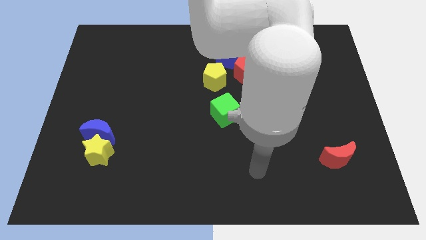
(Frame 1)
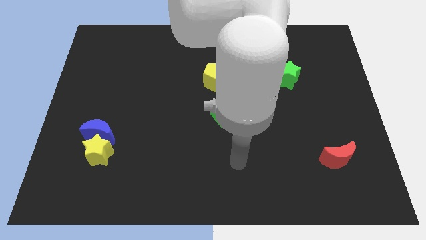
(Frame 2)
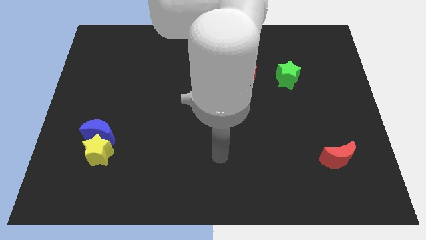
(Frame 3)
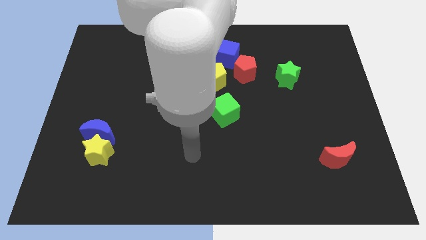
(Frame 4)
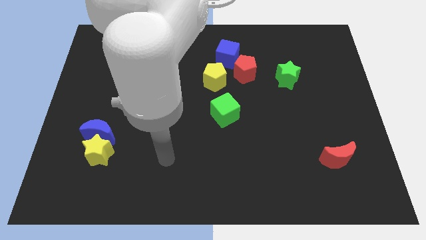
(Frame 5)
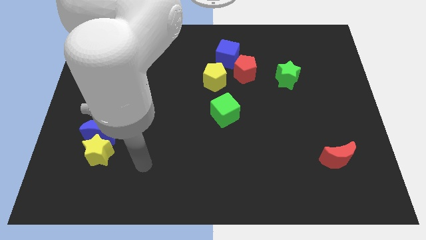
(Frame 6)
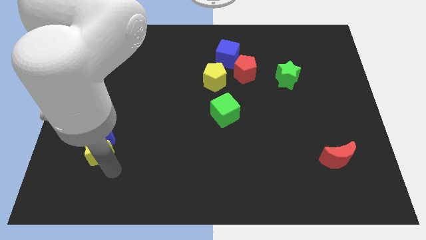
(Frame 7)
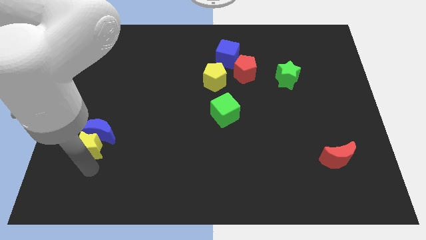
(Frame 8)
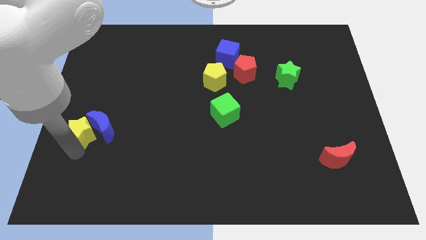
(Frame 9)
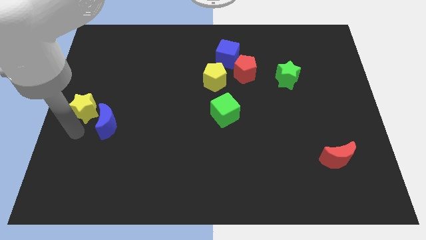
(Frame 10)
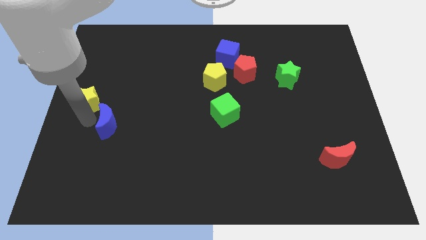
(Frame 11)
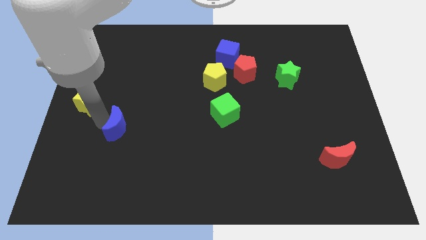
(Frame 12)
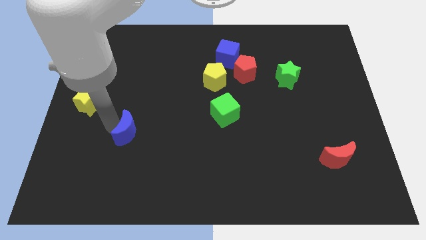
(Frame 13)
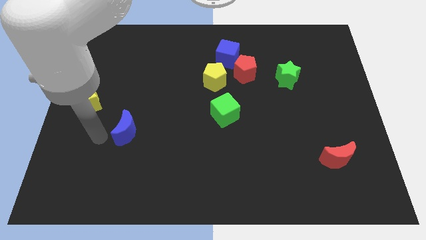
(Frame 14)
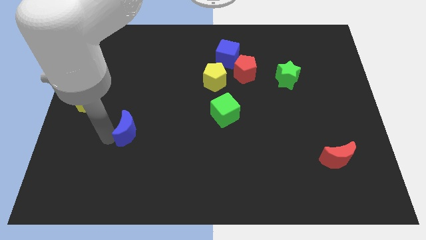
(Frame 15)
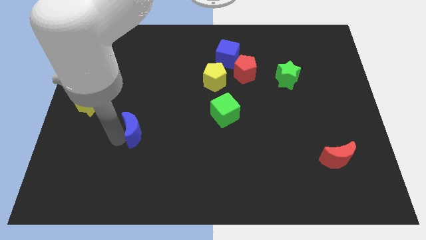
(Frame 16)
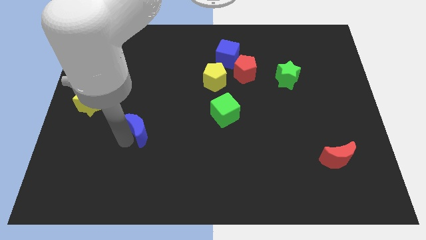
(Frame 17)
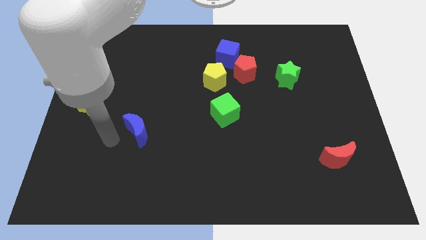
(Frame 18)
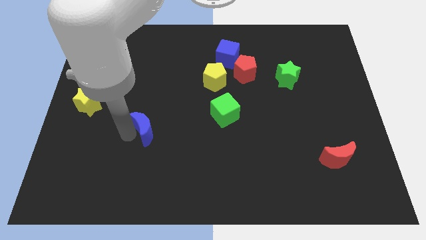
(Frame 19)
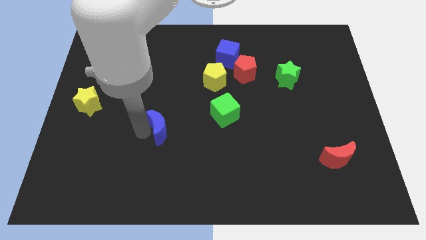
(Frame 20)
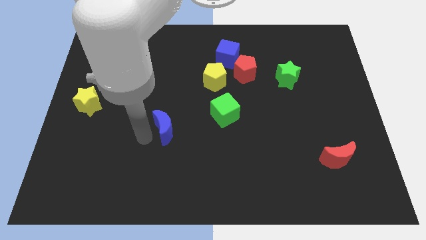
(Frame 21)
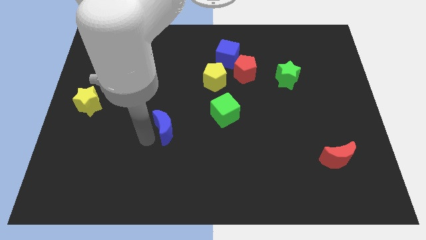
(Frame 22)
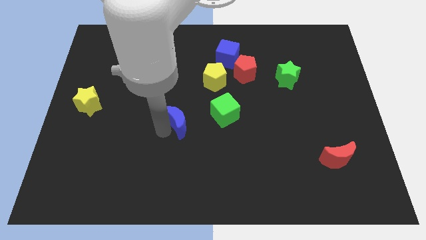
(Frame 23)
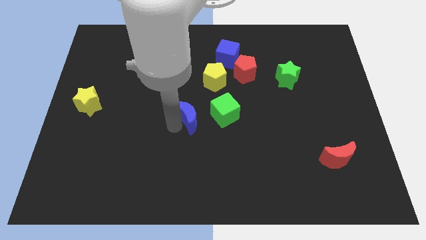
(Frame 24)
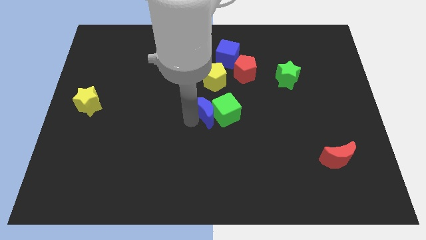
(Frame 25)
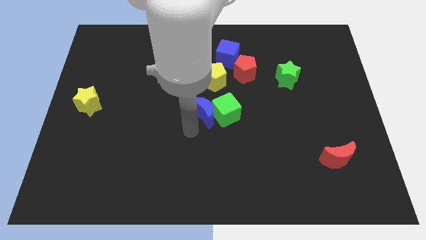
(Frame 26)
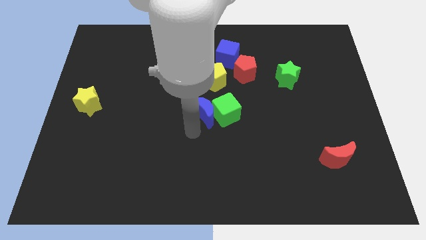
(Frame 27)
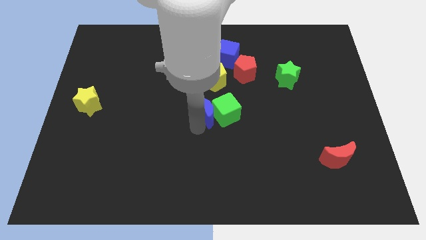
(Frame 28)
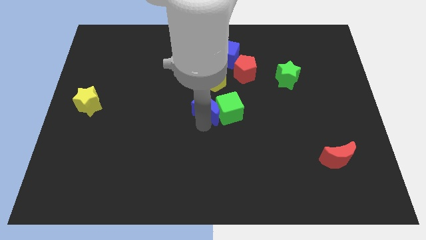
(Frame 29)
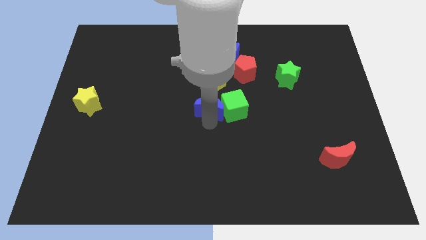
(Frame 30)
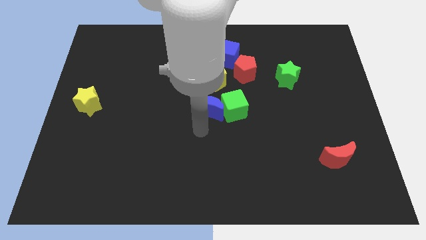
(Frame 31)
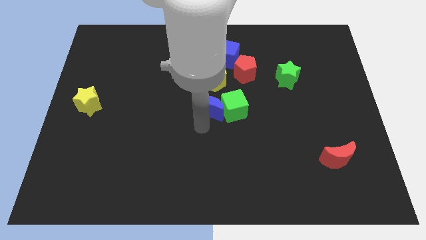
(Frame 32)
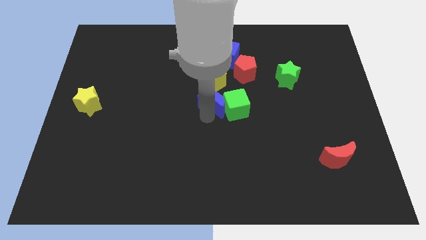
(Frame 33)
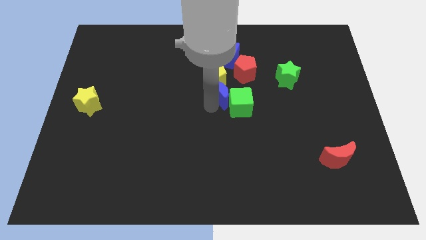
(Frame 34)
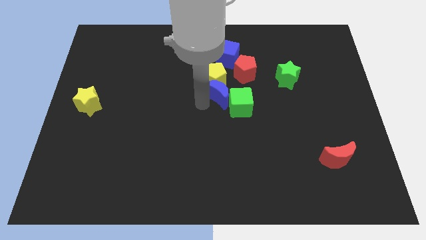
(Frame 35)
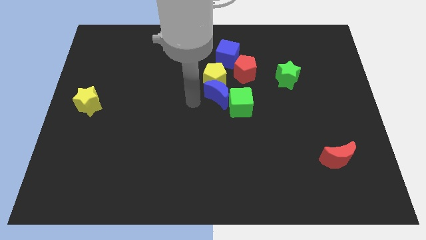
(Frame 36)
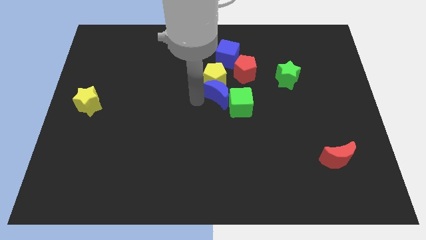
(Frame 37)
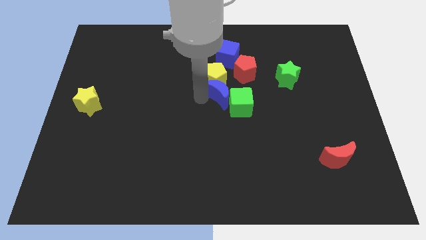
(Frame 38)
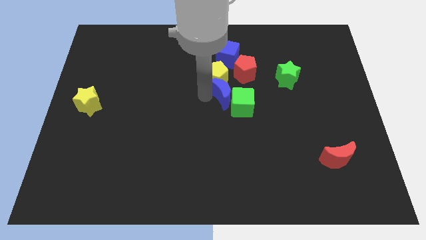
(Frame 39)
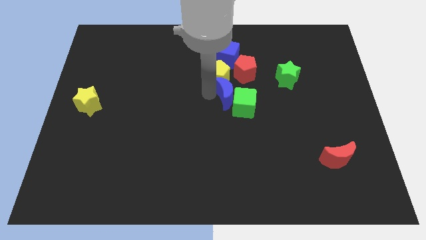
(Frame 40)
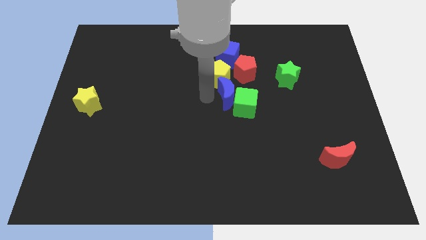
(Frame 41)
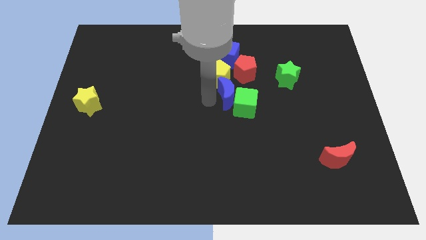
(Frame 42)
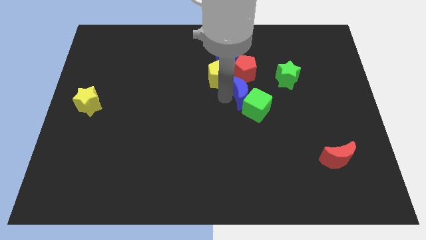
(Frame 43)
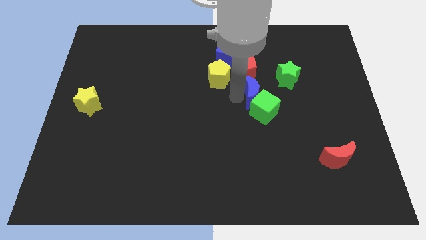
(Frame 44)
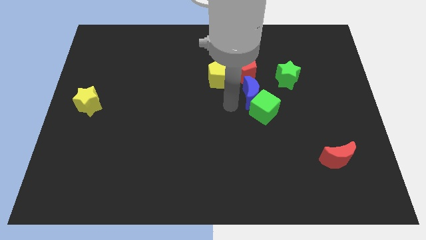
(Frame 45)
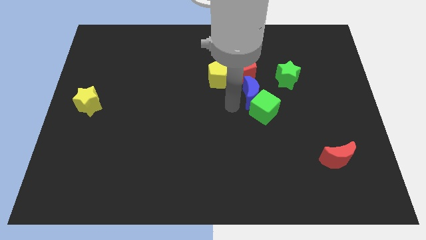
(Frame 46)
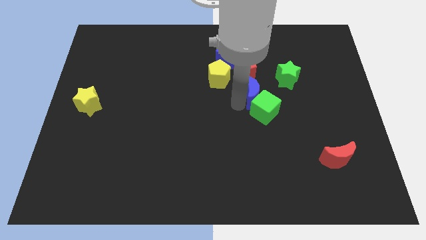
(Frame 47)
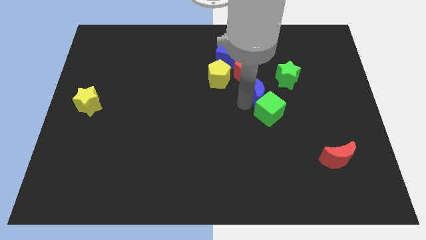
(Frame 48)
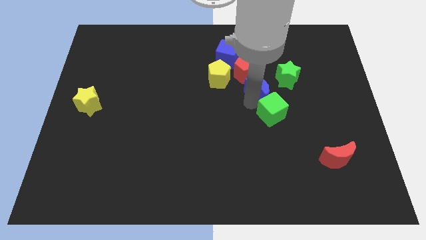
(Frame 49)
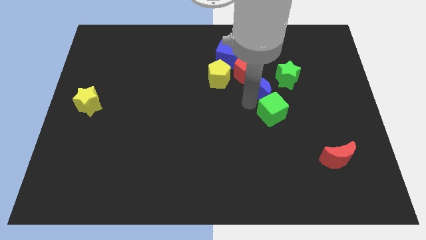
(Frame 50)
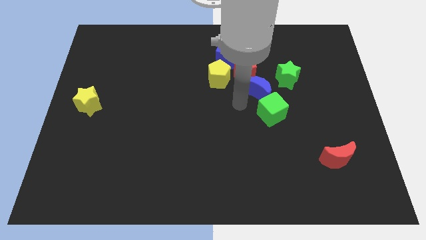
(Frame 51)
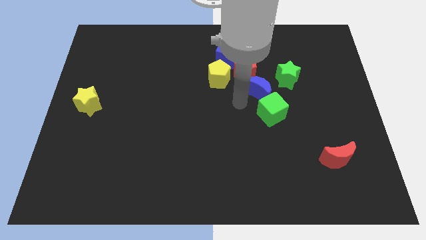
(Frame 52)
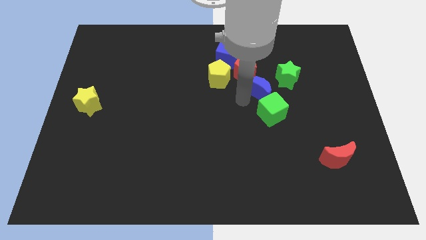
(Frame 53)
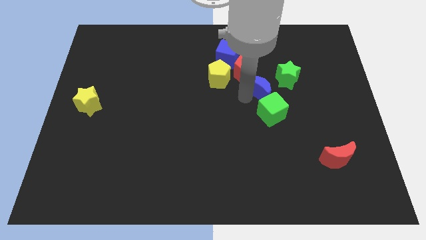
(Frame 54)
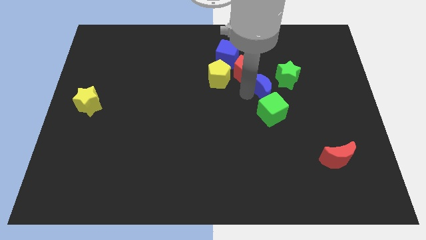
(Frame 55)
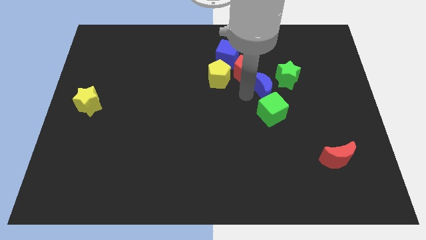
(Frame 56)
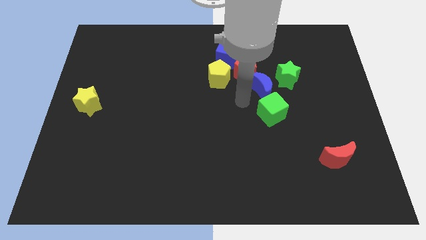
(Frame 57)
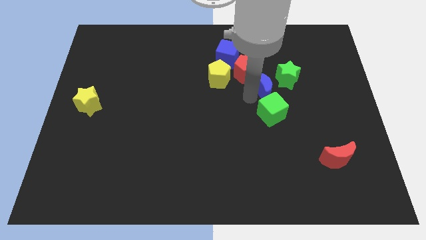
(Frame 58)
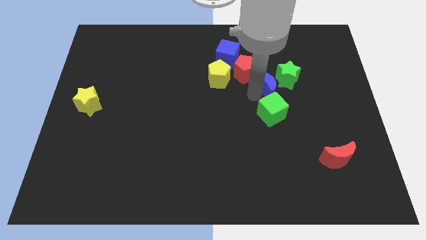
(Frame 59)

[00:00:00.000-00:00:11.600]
move the blue moon to the green star

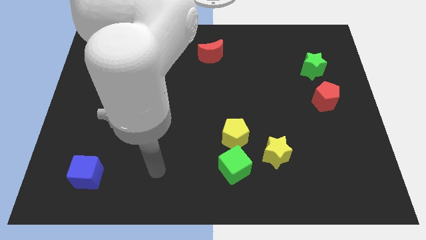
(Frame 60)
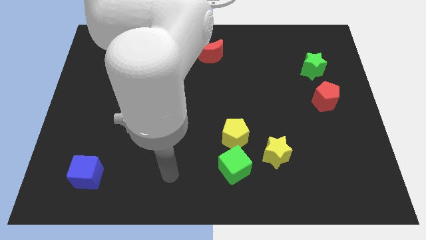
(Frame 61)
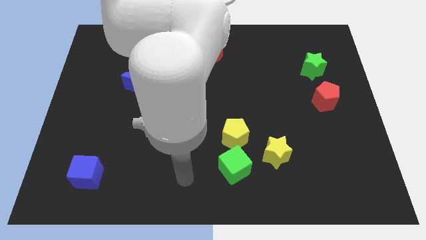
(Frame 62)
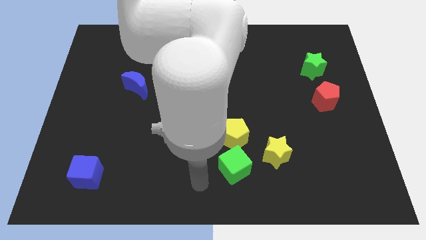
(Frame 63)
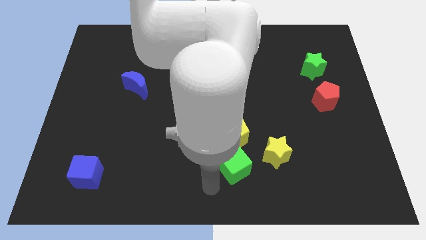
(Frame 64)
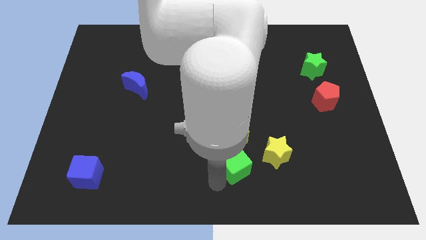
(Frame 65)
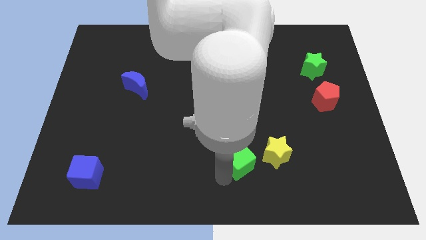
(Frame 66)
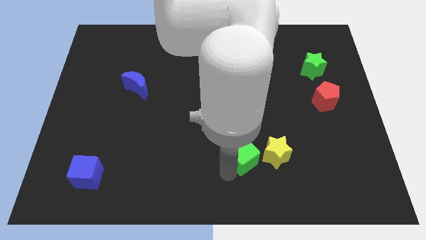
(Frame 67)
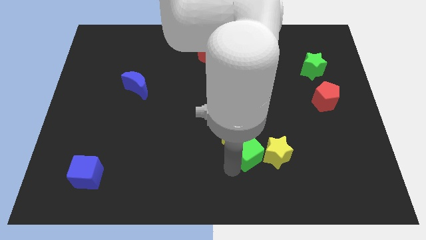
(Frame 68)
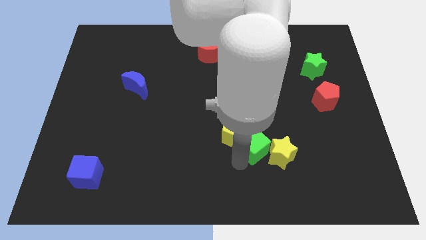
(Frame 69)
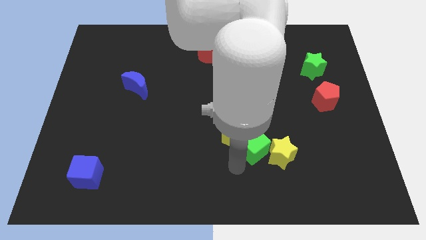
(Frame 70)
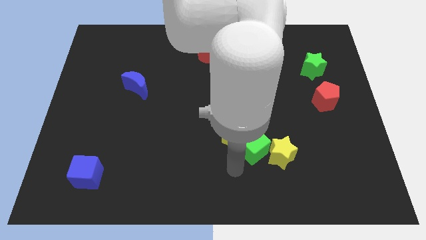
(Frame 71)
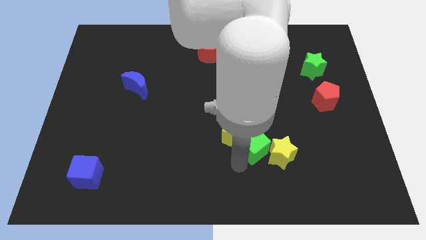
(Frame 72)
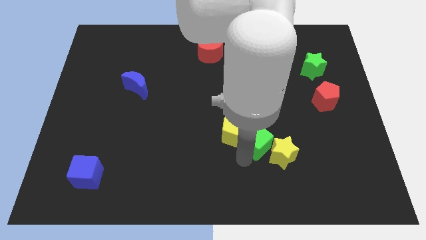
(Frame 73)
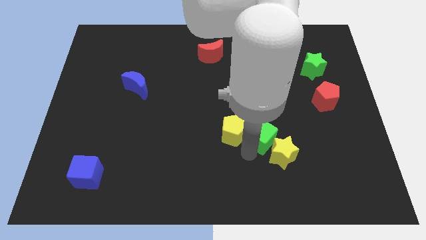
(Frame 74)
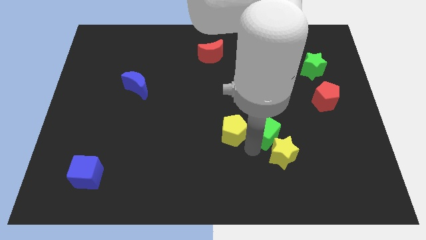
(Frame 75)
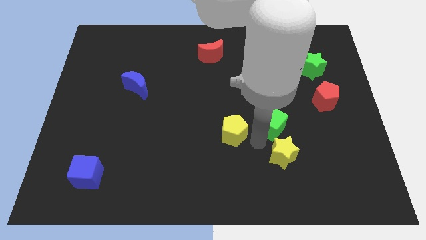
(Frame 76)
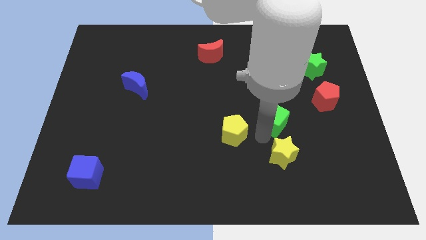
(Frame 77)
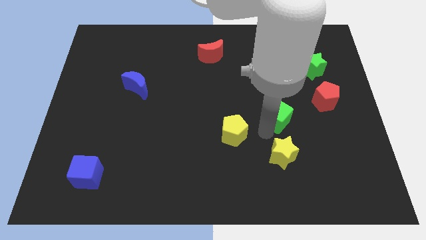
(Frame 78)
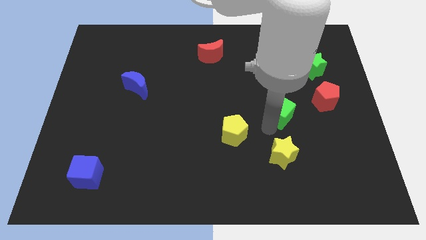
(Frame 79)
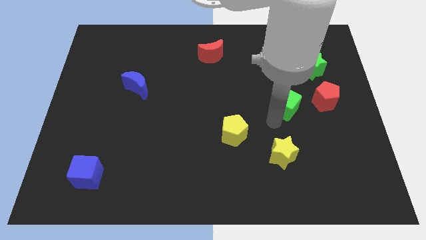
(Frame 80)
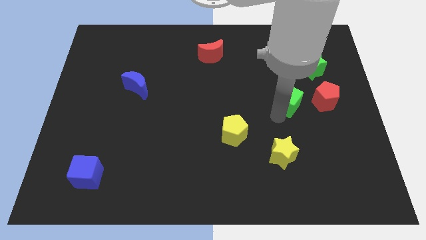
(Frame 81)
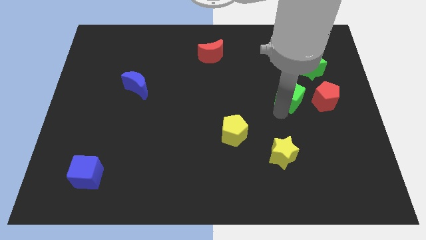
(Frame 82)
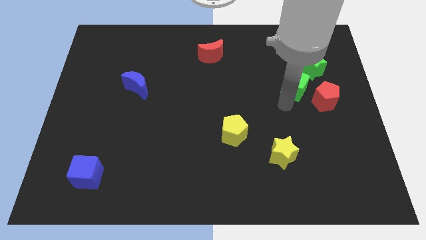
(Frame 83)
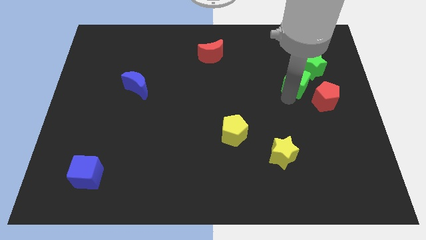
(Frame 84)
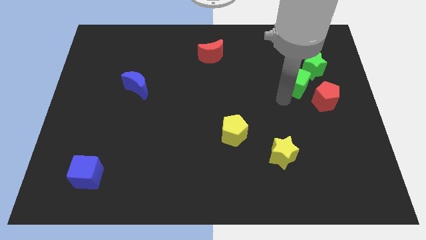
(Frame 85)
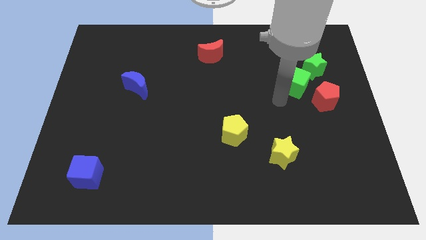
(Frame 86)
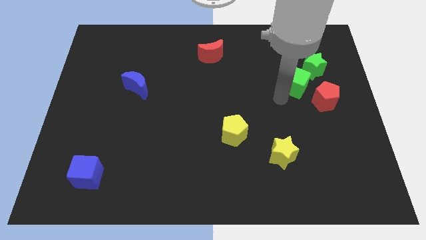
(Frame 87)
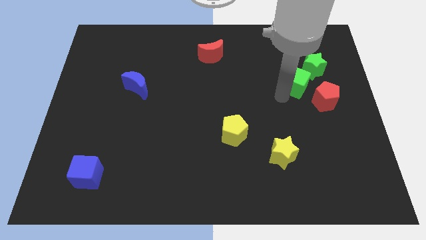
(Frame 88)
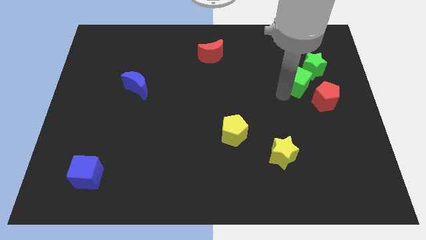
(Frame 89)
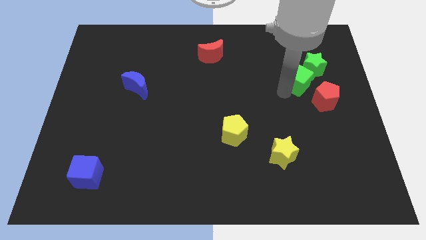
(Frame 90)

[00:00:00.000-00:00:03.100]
slide the green cube close to the green star
